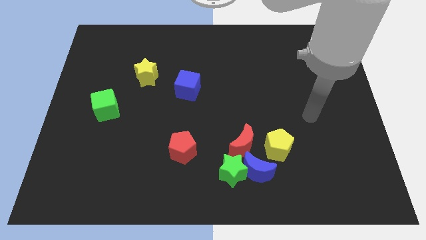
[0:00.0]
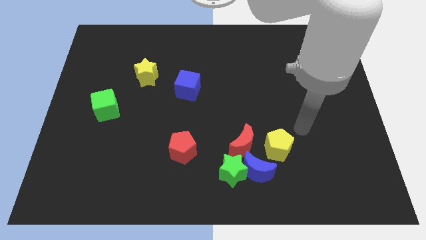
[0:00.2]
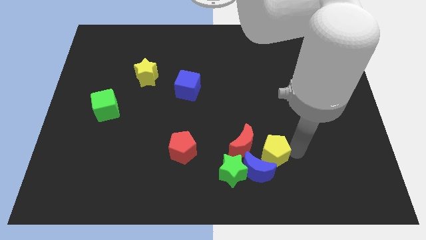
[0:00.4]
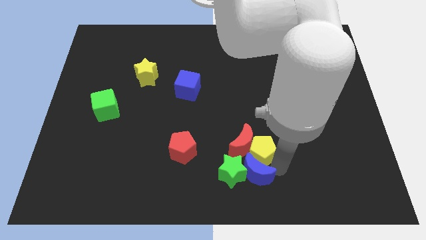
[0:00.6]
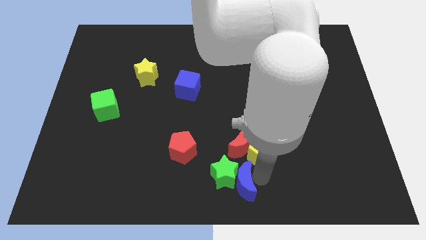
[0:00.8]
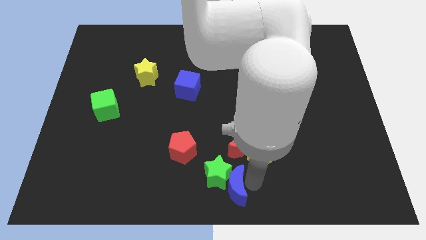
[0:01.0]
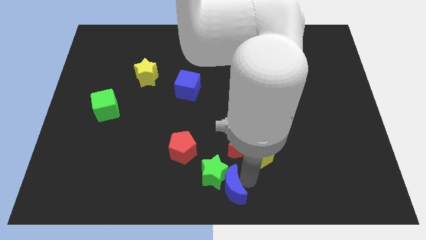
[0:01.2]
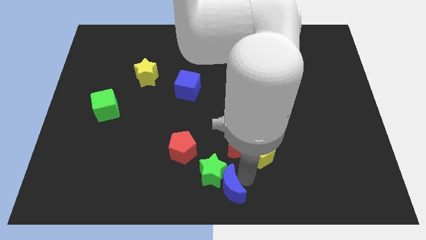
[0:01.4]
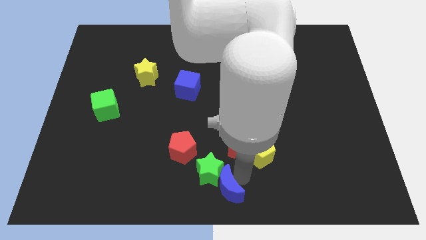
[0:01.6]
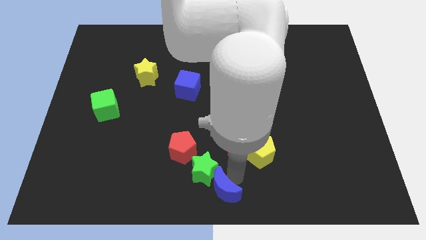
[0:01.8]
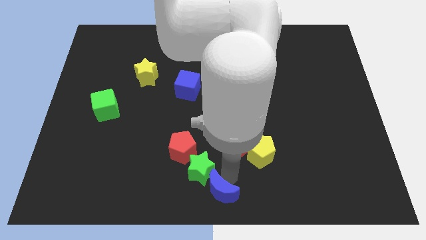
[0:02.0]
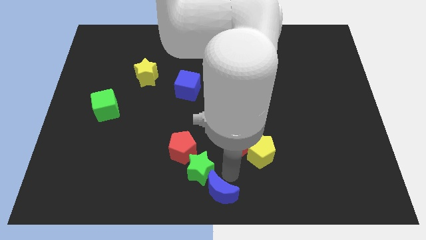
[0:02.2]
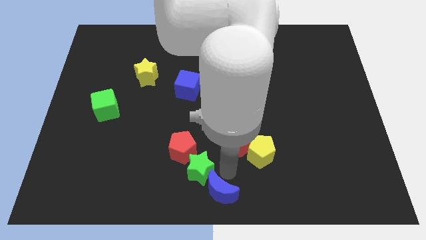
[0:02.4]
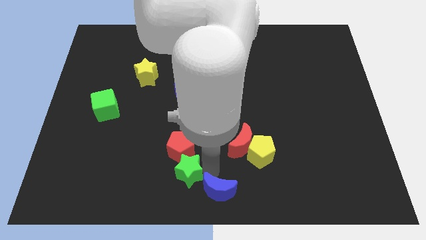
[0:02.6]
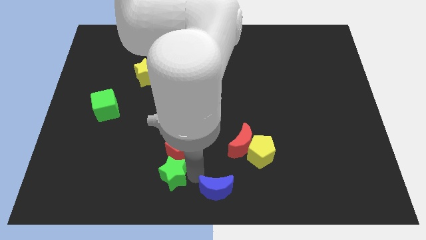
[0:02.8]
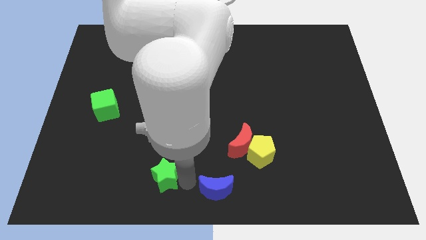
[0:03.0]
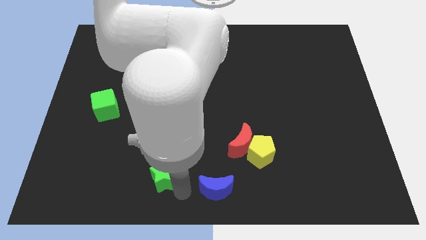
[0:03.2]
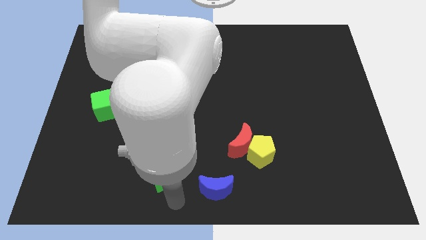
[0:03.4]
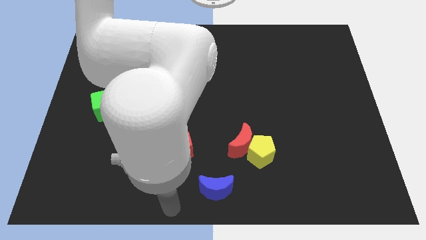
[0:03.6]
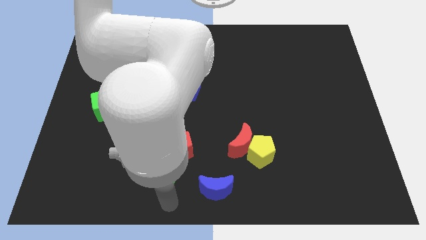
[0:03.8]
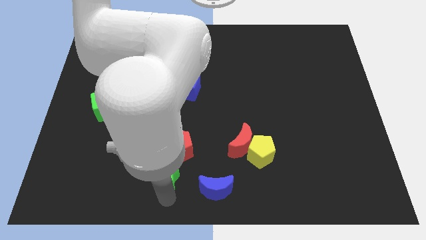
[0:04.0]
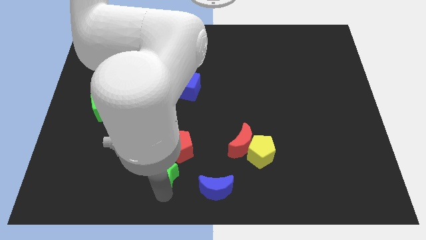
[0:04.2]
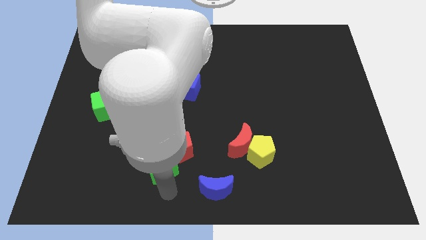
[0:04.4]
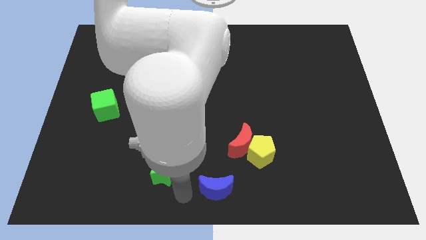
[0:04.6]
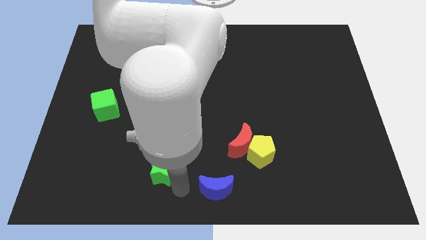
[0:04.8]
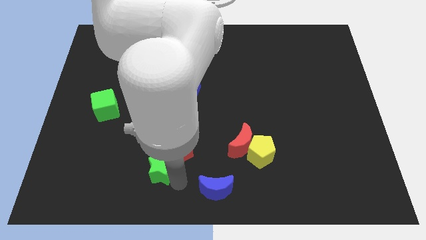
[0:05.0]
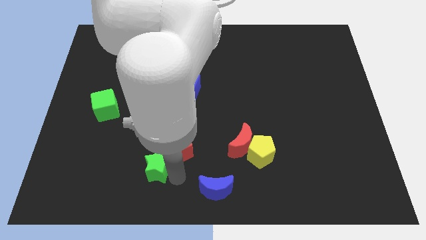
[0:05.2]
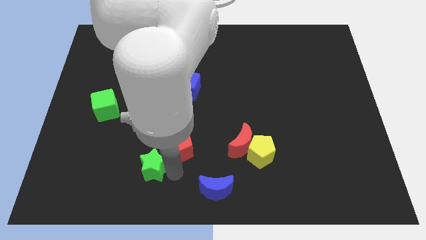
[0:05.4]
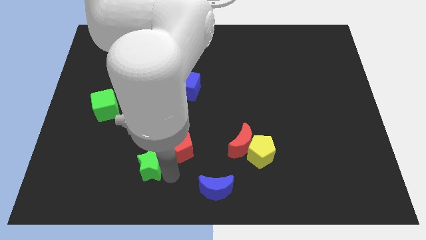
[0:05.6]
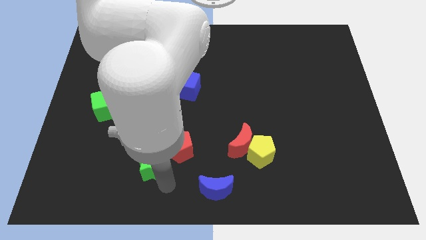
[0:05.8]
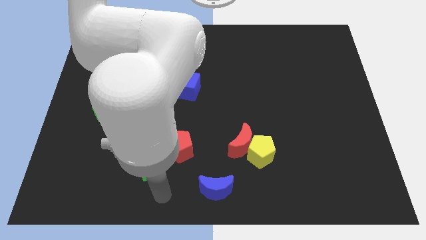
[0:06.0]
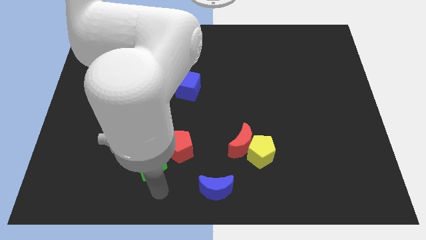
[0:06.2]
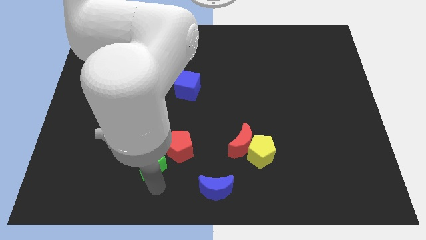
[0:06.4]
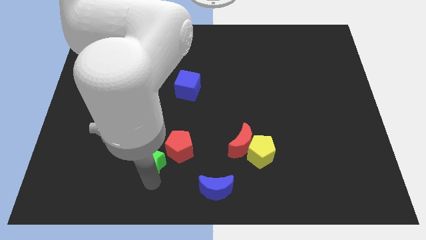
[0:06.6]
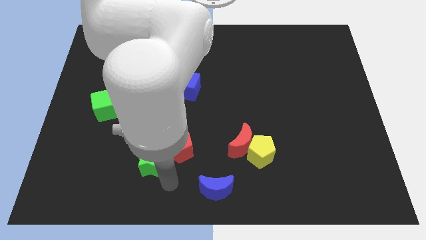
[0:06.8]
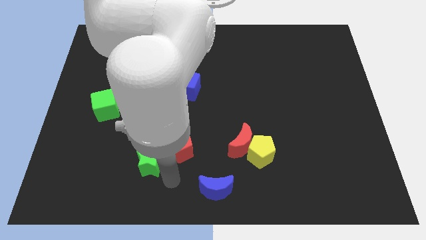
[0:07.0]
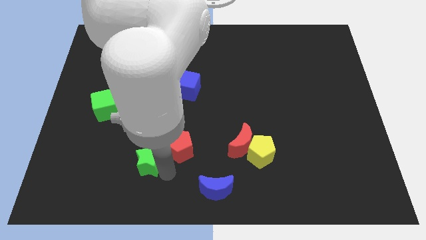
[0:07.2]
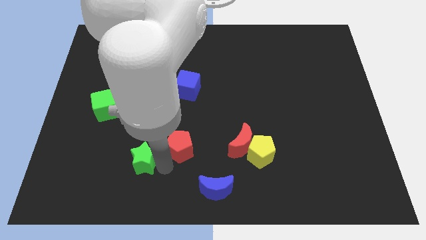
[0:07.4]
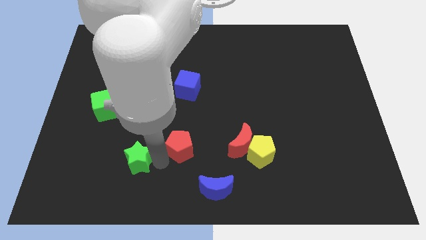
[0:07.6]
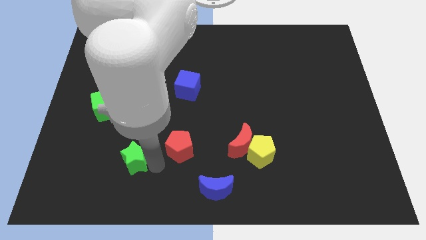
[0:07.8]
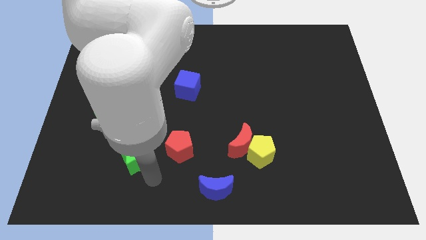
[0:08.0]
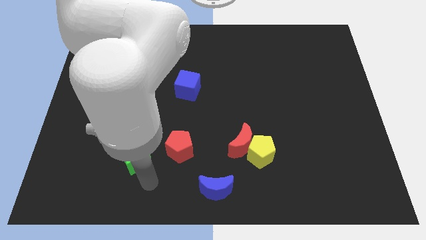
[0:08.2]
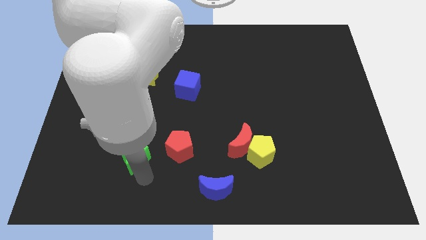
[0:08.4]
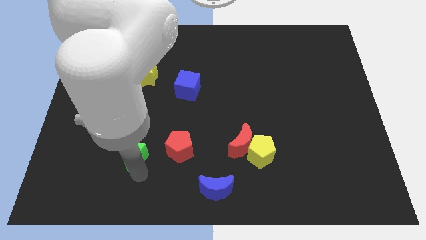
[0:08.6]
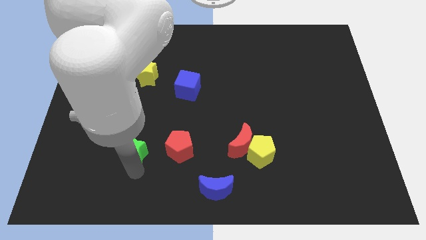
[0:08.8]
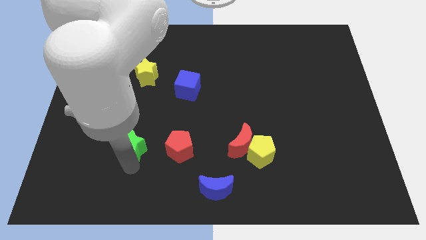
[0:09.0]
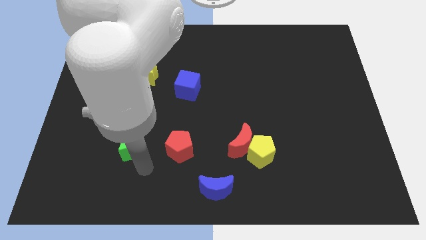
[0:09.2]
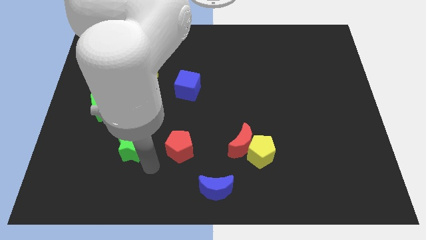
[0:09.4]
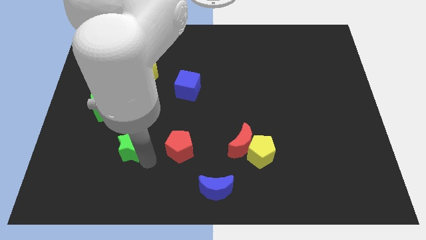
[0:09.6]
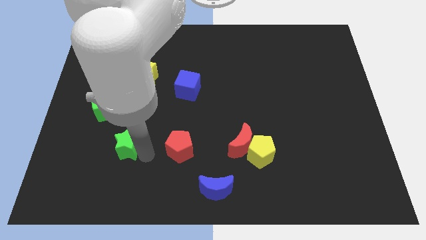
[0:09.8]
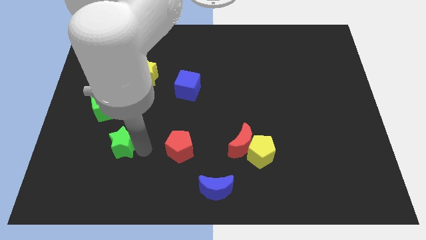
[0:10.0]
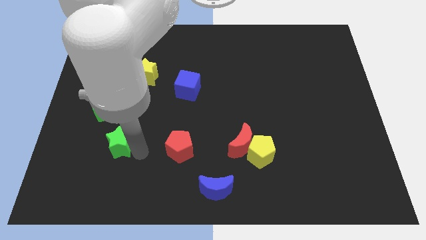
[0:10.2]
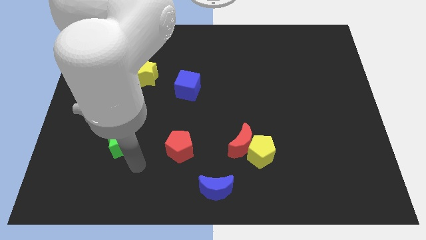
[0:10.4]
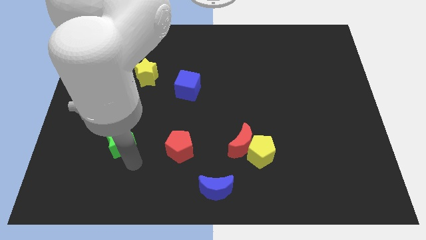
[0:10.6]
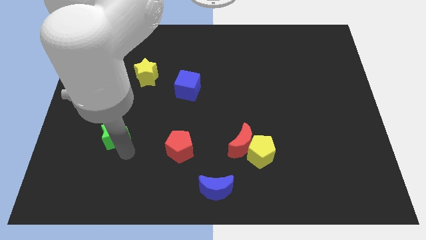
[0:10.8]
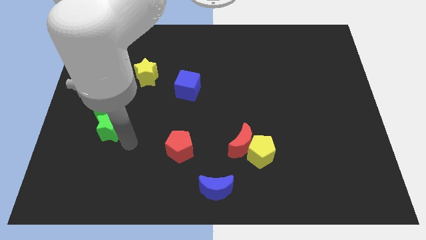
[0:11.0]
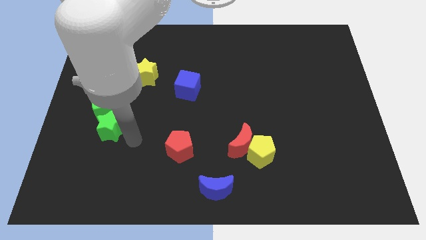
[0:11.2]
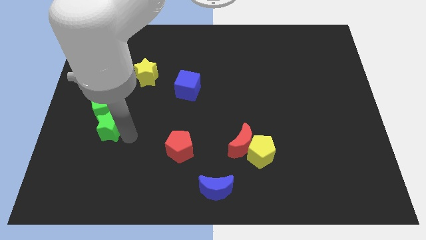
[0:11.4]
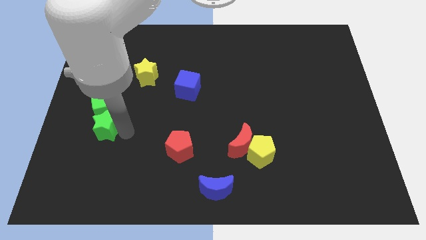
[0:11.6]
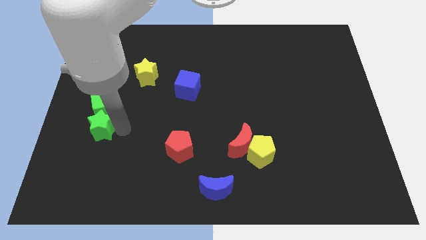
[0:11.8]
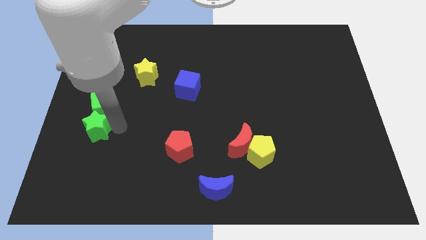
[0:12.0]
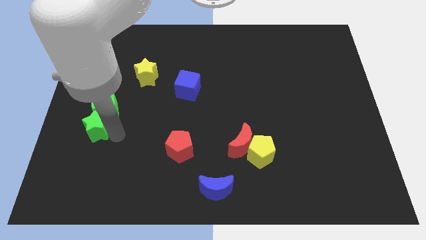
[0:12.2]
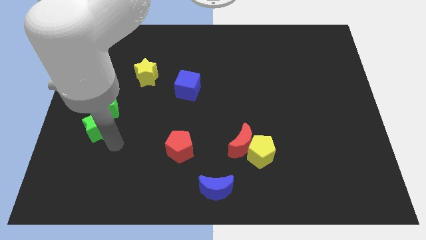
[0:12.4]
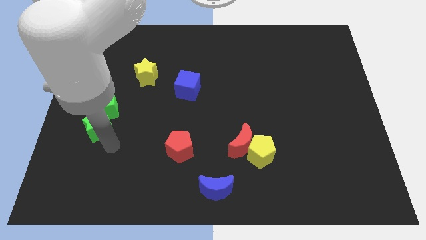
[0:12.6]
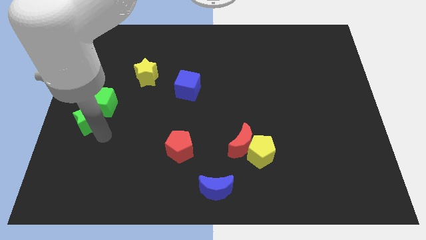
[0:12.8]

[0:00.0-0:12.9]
slide the green star to the left side
